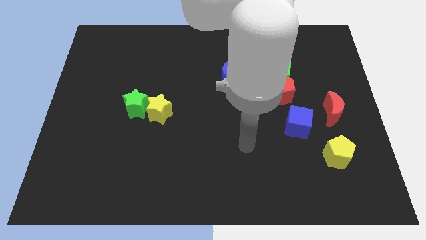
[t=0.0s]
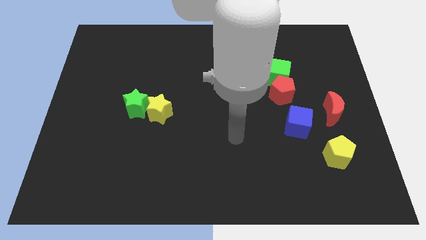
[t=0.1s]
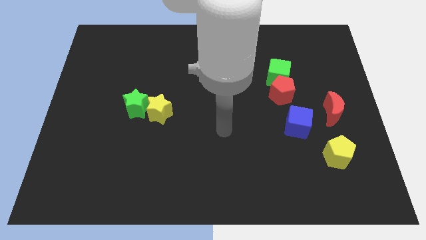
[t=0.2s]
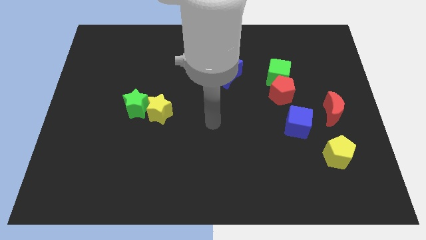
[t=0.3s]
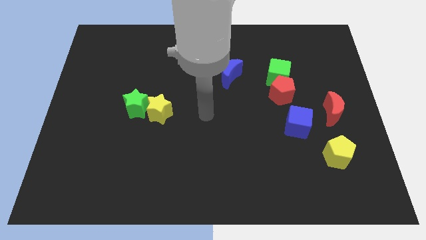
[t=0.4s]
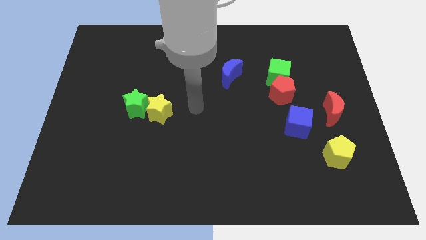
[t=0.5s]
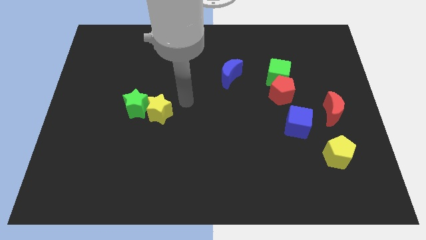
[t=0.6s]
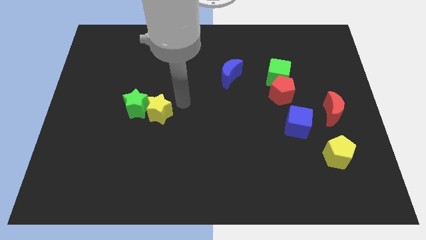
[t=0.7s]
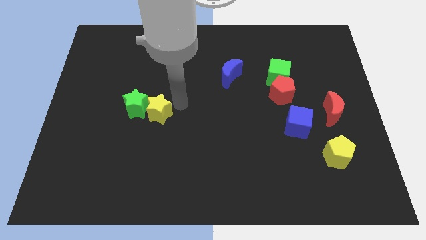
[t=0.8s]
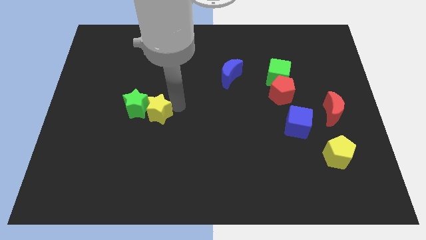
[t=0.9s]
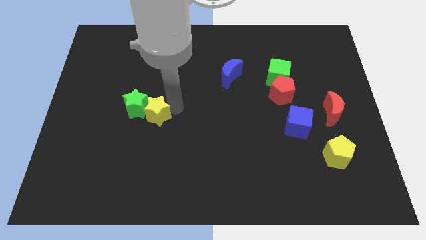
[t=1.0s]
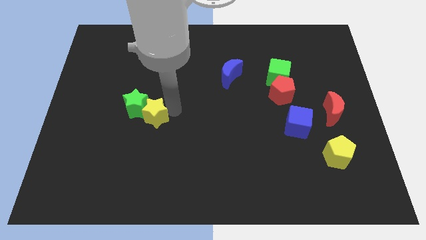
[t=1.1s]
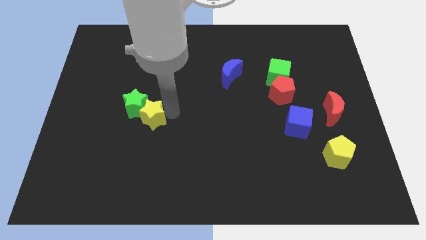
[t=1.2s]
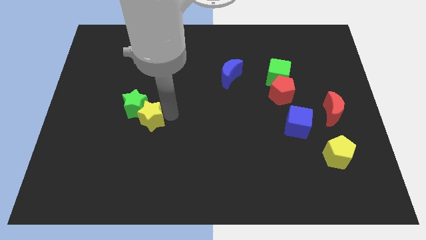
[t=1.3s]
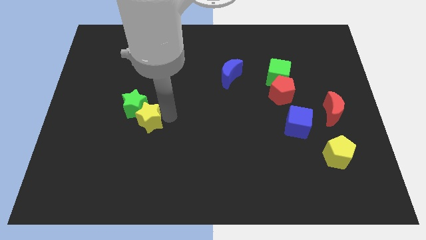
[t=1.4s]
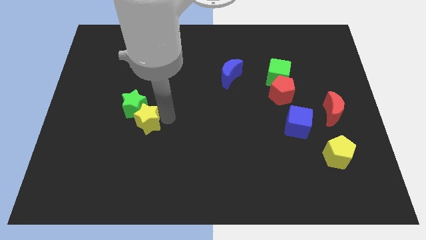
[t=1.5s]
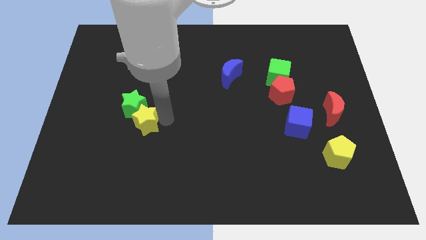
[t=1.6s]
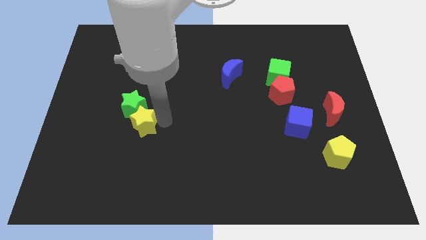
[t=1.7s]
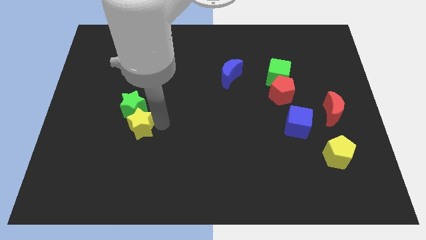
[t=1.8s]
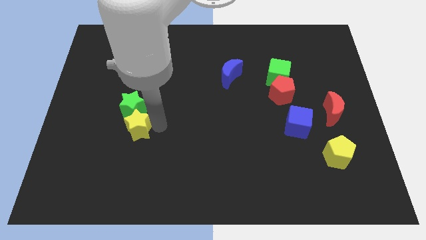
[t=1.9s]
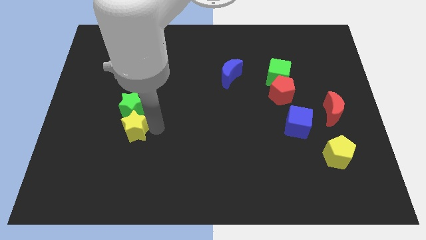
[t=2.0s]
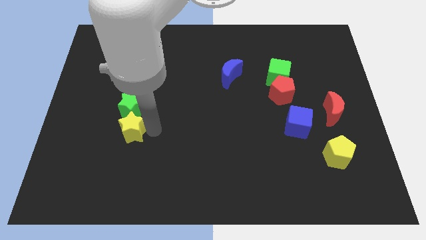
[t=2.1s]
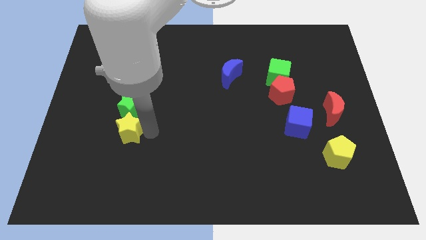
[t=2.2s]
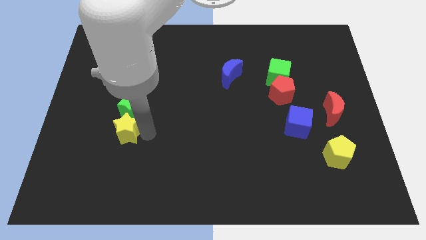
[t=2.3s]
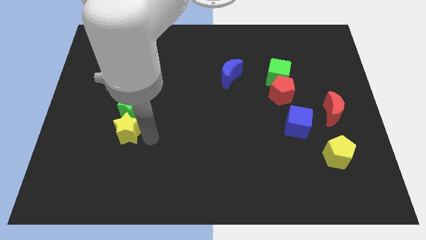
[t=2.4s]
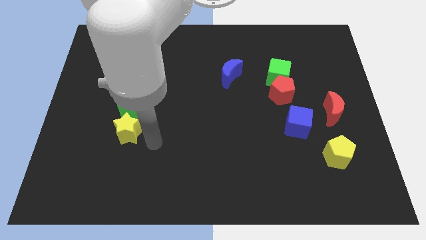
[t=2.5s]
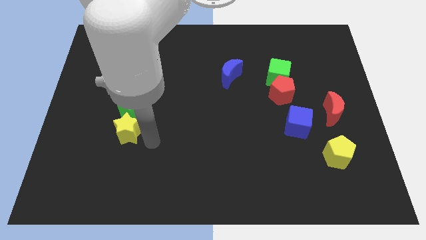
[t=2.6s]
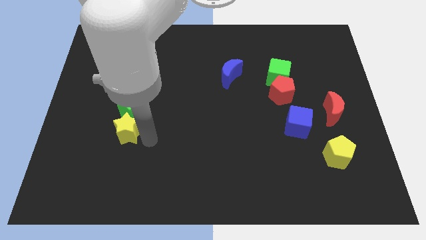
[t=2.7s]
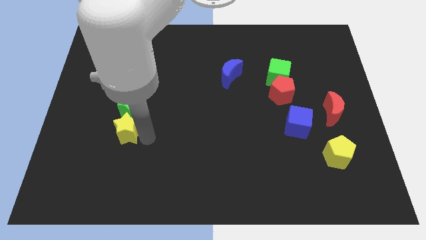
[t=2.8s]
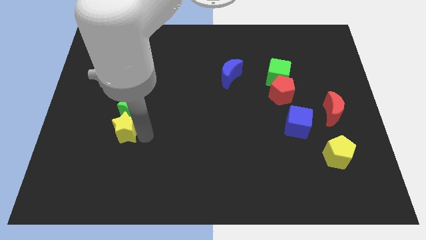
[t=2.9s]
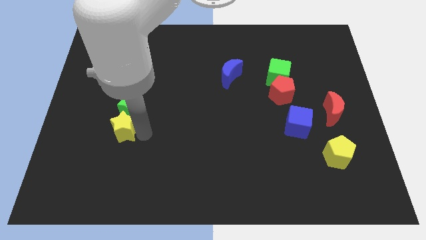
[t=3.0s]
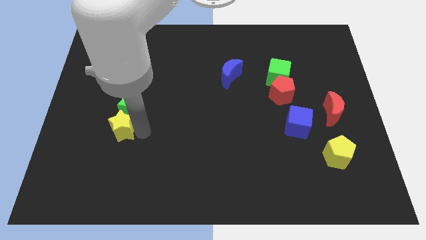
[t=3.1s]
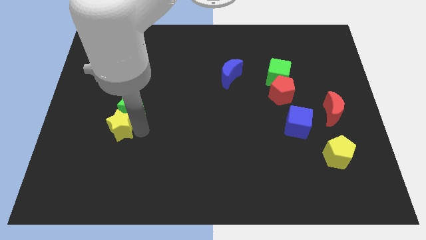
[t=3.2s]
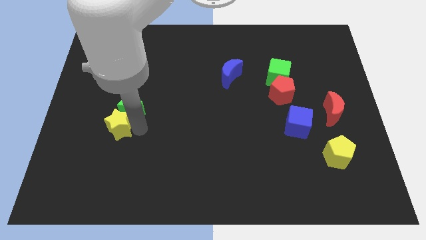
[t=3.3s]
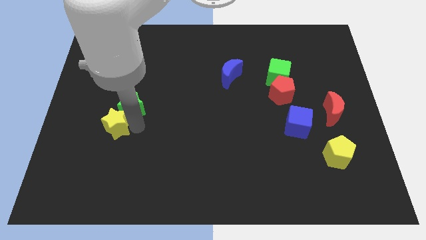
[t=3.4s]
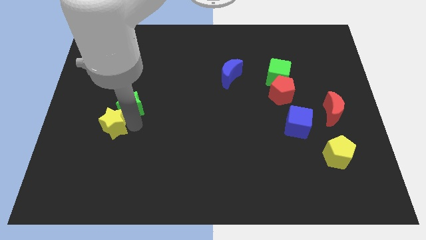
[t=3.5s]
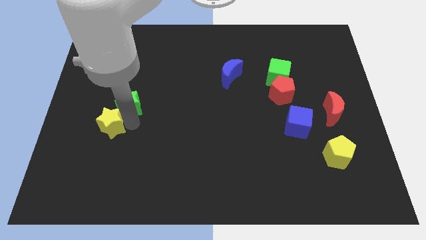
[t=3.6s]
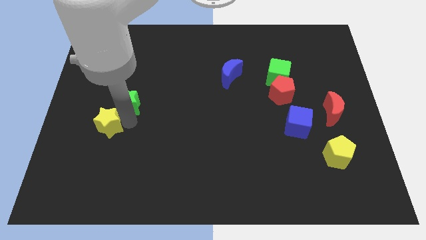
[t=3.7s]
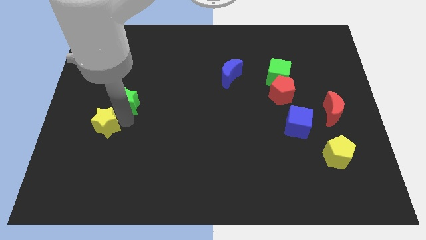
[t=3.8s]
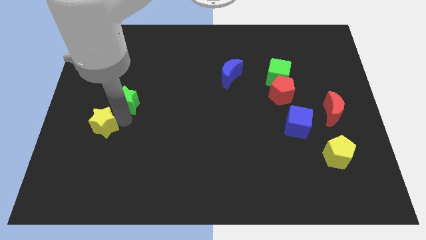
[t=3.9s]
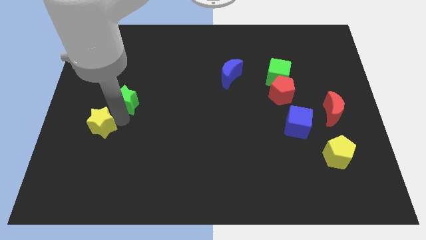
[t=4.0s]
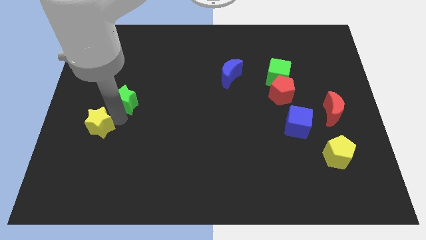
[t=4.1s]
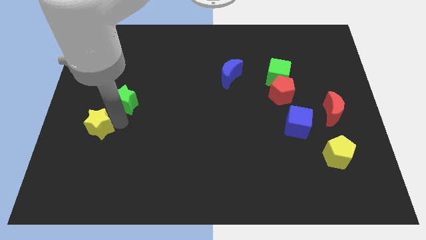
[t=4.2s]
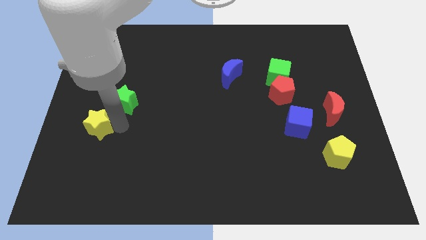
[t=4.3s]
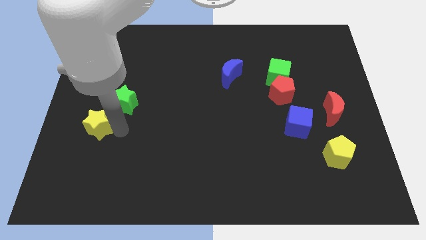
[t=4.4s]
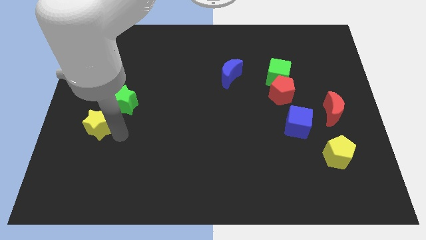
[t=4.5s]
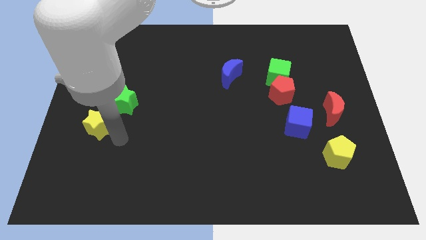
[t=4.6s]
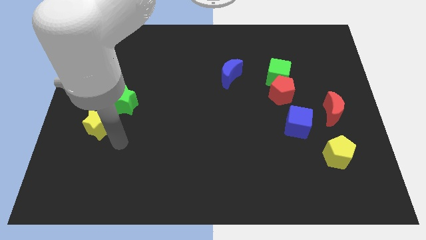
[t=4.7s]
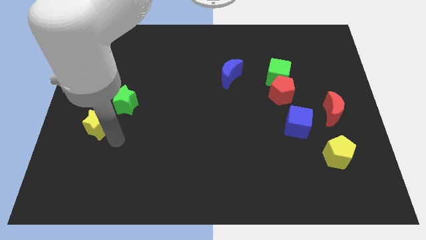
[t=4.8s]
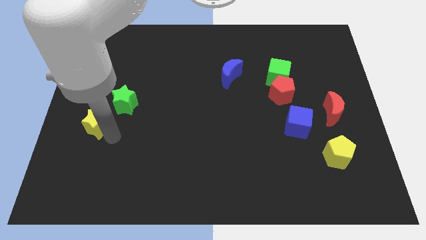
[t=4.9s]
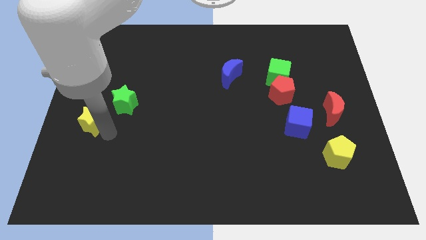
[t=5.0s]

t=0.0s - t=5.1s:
push the yellow star to the left side

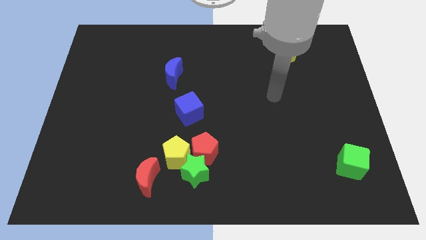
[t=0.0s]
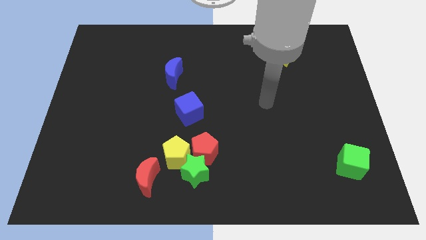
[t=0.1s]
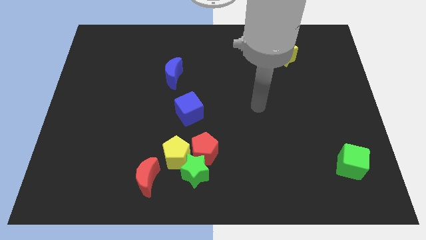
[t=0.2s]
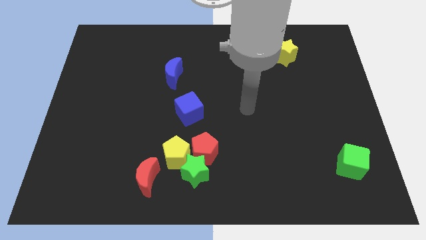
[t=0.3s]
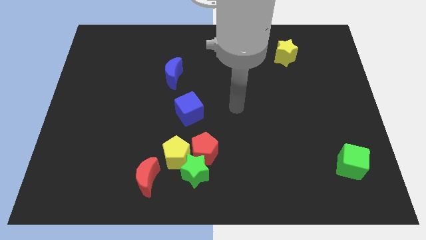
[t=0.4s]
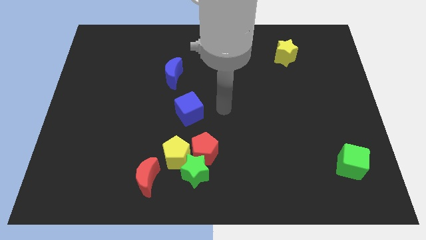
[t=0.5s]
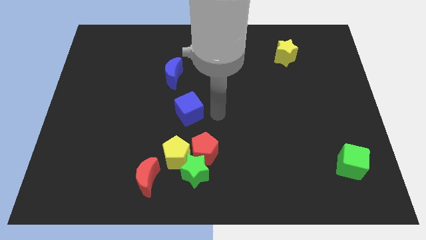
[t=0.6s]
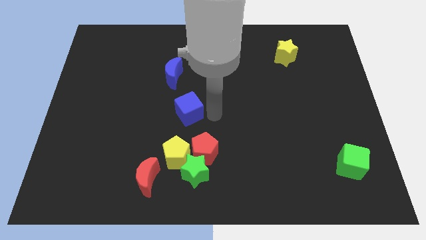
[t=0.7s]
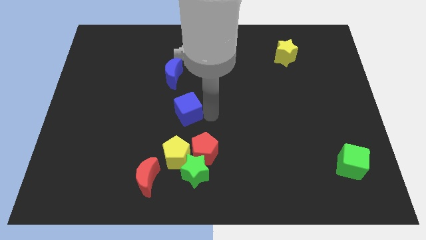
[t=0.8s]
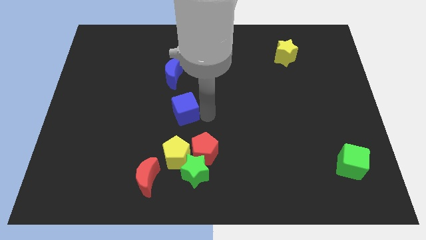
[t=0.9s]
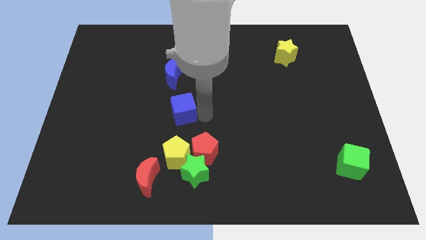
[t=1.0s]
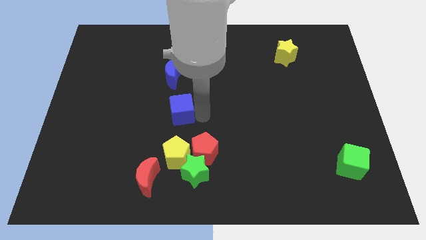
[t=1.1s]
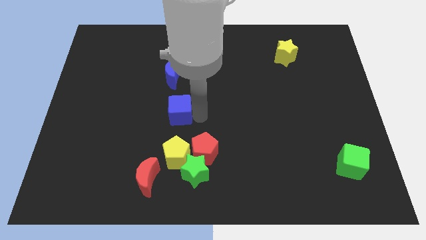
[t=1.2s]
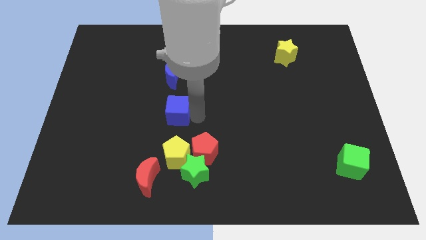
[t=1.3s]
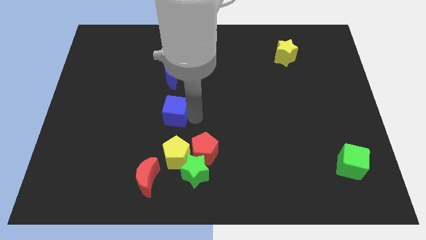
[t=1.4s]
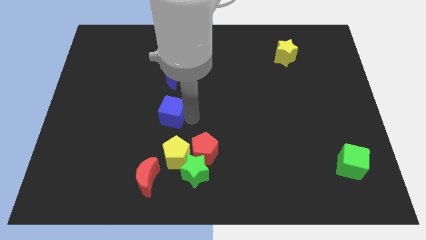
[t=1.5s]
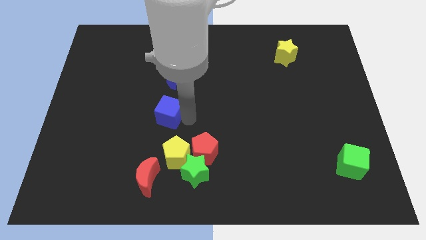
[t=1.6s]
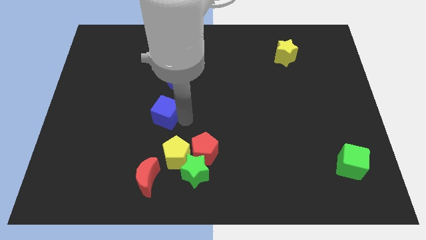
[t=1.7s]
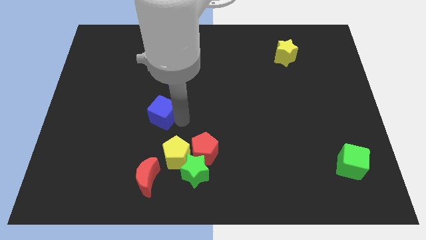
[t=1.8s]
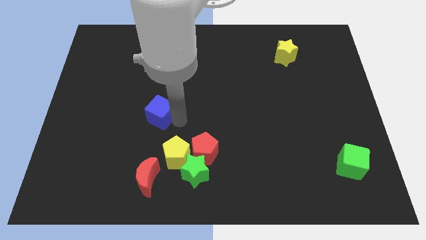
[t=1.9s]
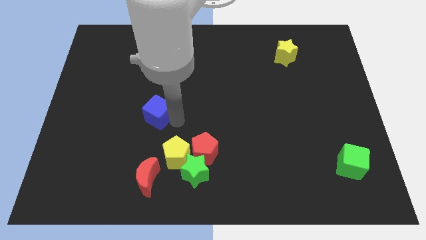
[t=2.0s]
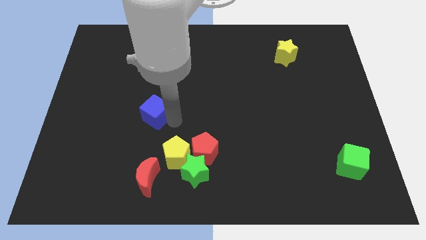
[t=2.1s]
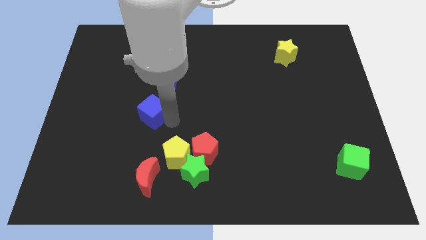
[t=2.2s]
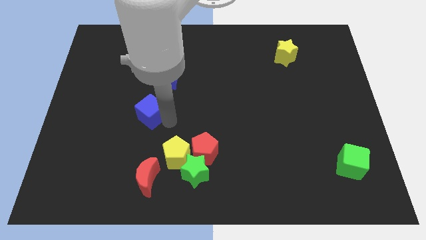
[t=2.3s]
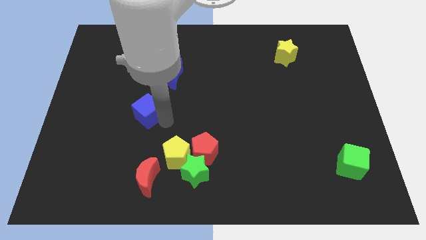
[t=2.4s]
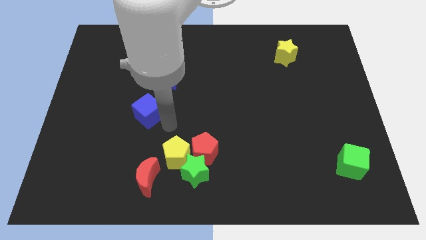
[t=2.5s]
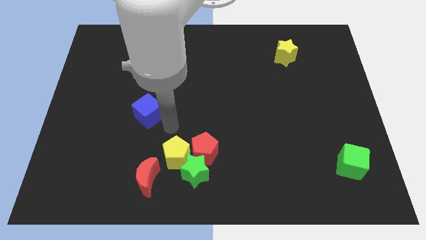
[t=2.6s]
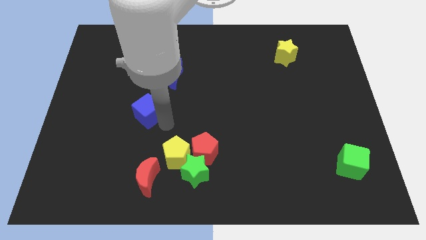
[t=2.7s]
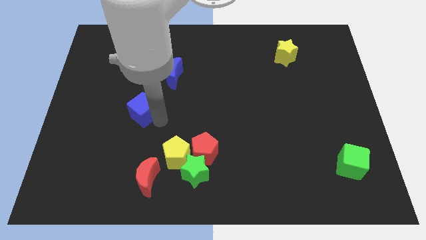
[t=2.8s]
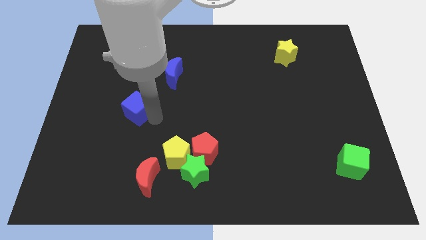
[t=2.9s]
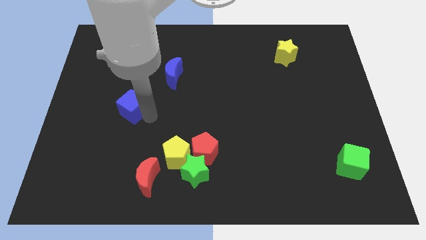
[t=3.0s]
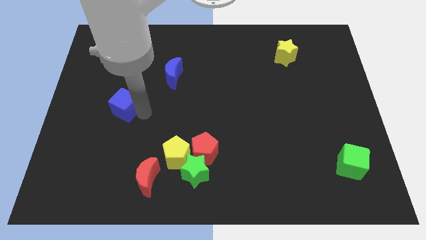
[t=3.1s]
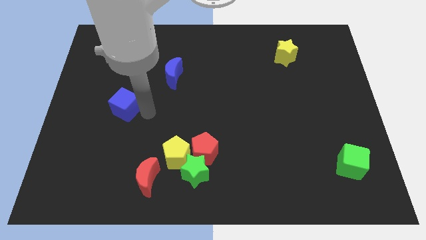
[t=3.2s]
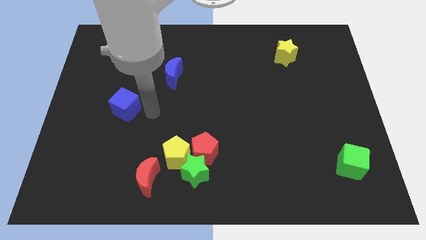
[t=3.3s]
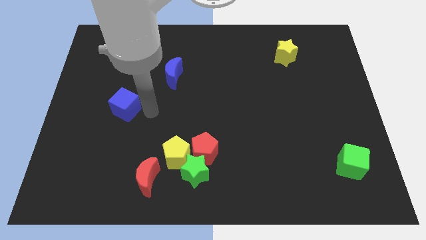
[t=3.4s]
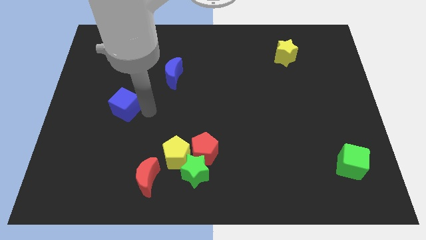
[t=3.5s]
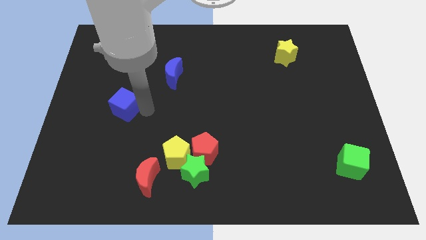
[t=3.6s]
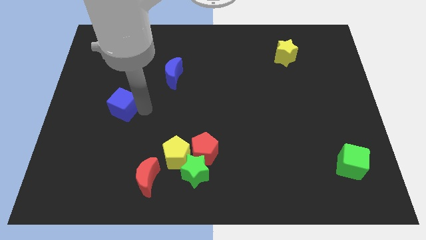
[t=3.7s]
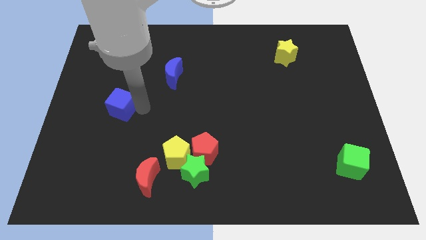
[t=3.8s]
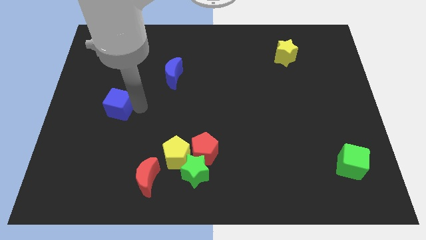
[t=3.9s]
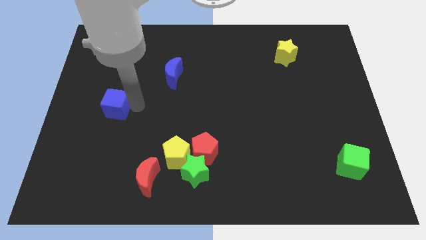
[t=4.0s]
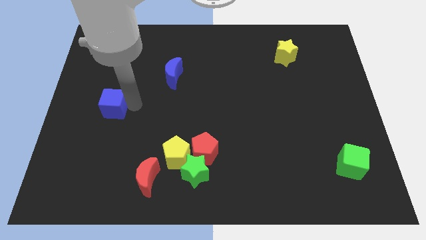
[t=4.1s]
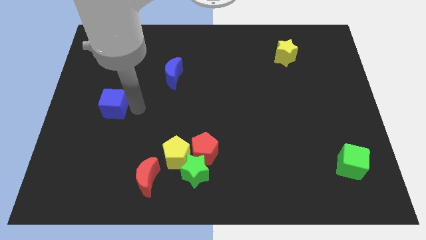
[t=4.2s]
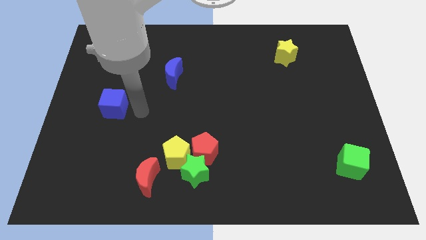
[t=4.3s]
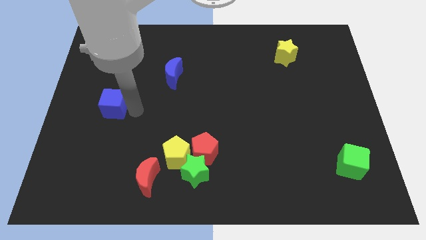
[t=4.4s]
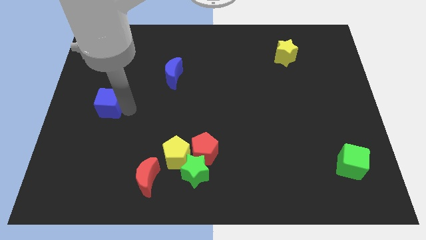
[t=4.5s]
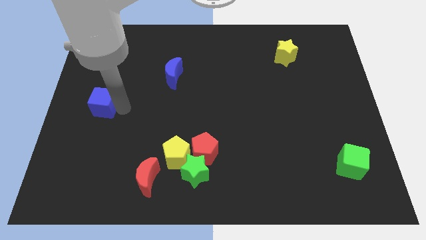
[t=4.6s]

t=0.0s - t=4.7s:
put the blue cube to the left side
